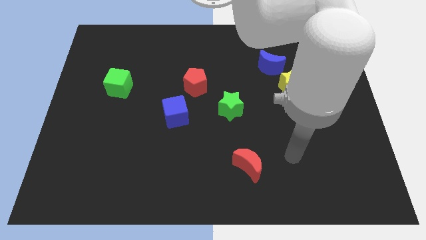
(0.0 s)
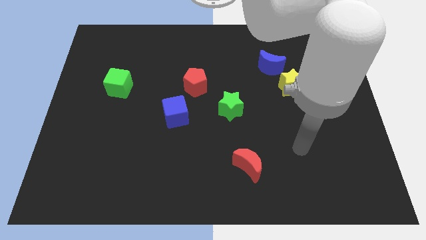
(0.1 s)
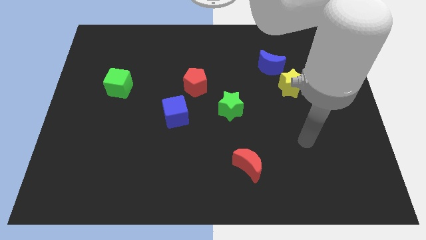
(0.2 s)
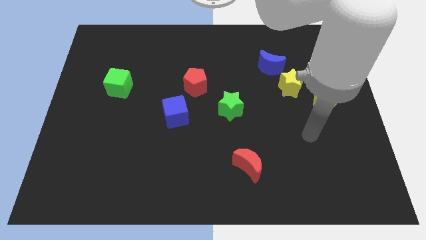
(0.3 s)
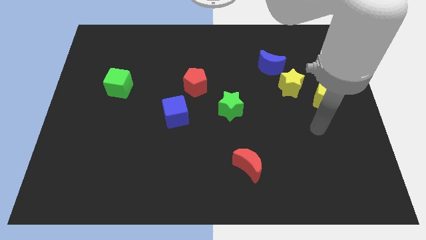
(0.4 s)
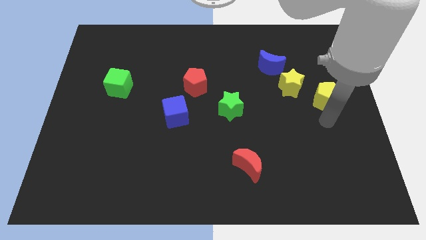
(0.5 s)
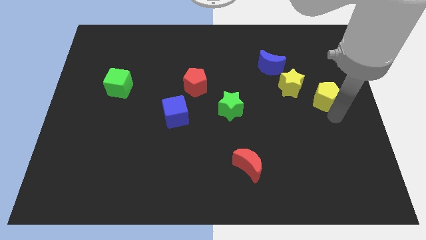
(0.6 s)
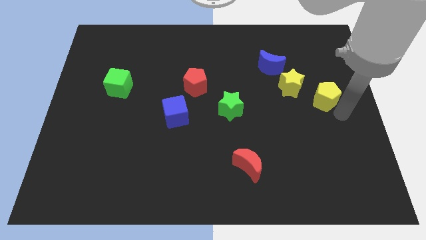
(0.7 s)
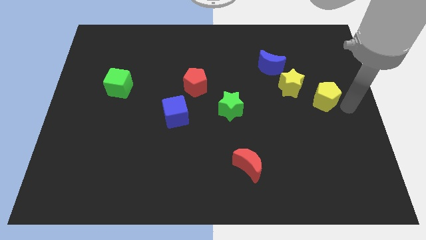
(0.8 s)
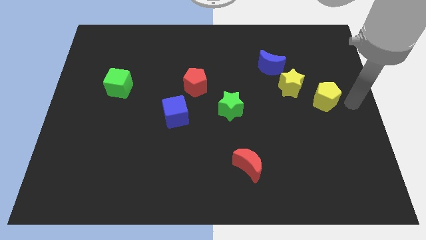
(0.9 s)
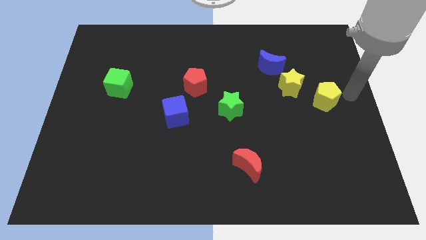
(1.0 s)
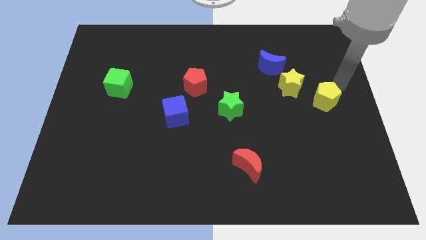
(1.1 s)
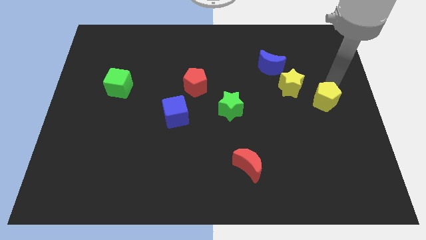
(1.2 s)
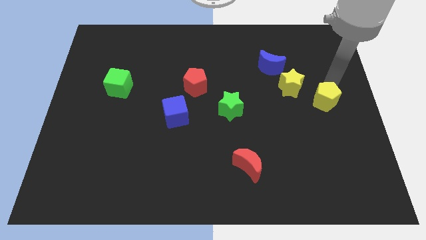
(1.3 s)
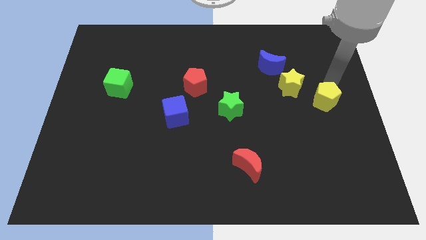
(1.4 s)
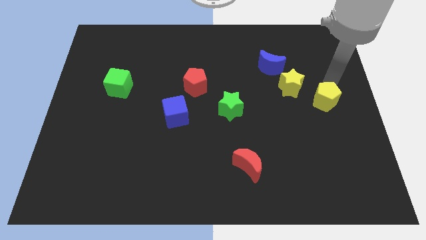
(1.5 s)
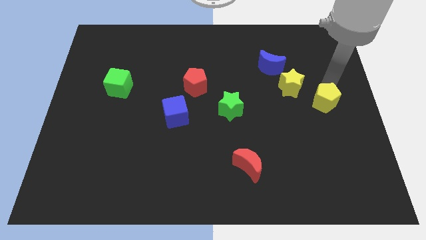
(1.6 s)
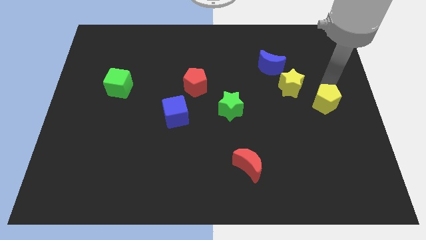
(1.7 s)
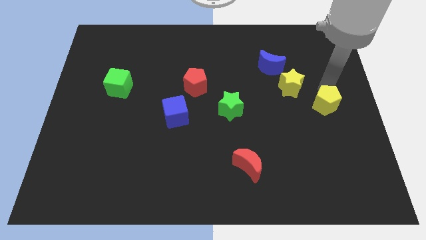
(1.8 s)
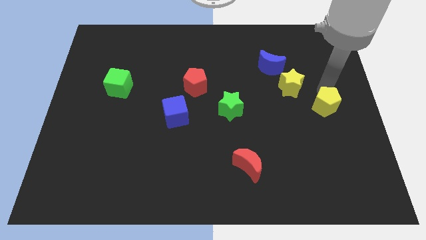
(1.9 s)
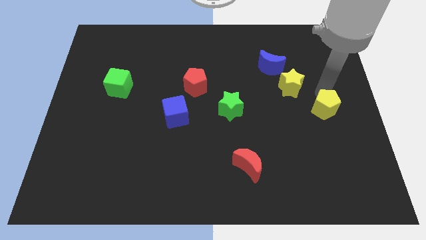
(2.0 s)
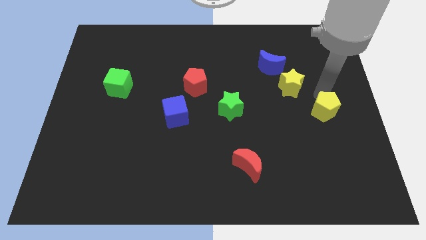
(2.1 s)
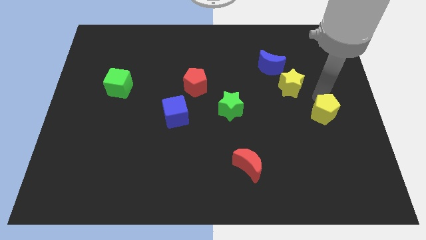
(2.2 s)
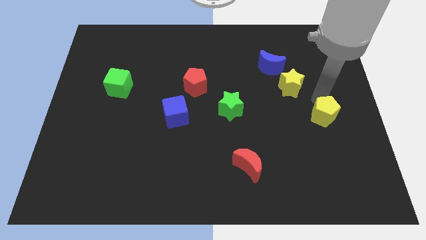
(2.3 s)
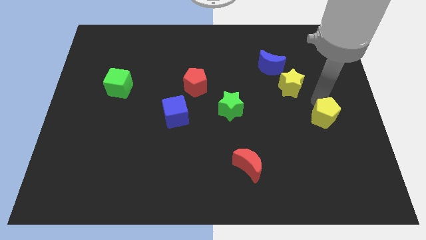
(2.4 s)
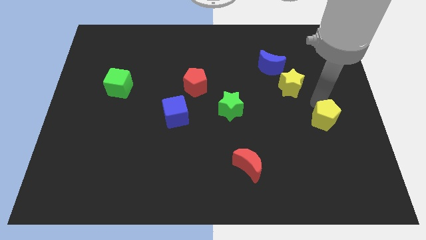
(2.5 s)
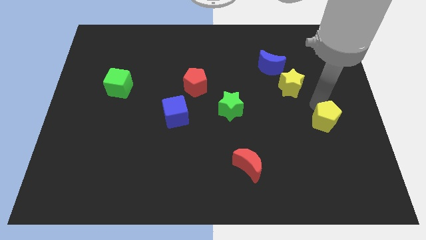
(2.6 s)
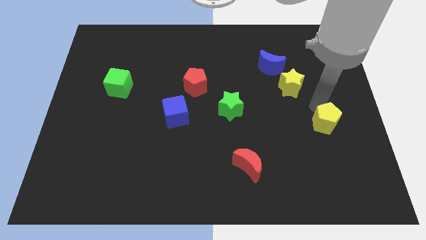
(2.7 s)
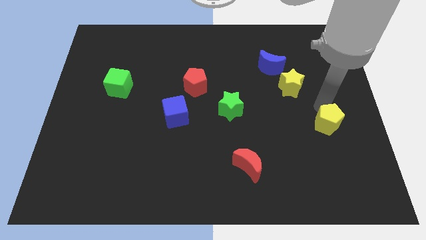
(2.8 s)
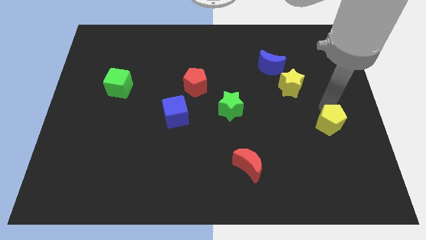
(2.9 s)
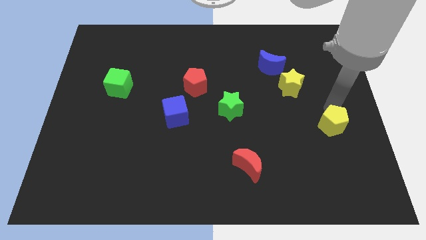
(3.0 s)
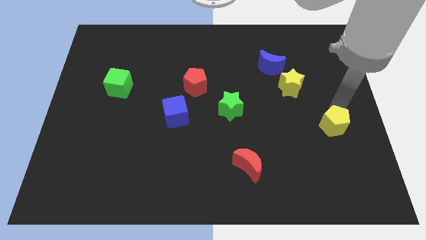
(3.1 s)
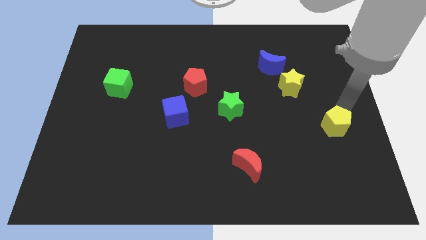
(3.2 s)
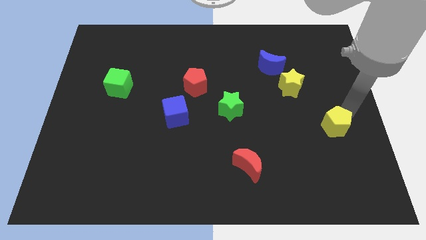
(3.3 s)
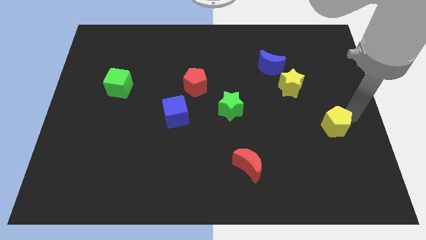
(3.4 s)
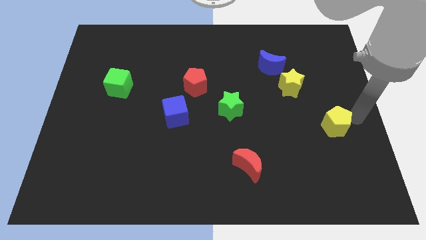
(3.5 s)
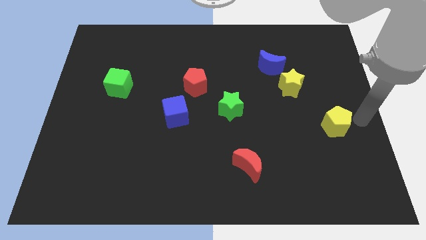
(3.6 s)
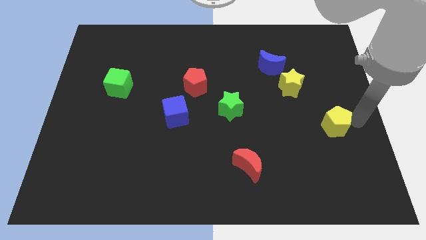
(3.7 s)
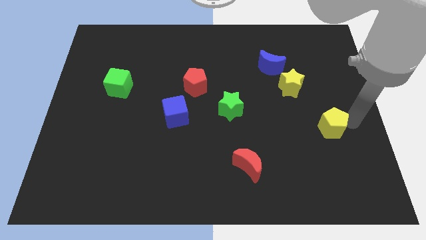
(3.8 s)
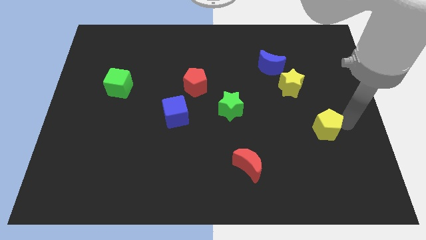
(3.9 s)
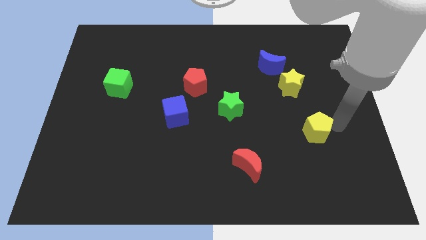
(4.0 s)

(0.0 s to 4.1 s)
move the yellow pentagon downwards and then to the left somewhat

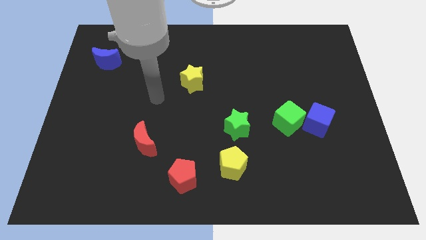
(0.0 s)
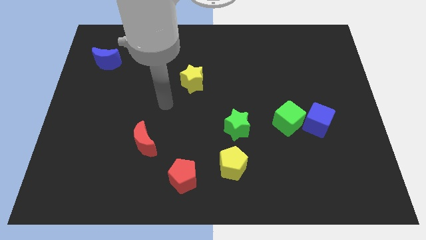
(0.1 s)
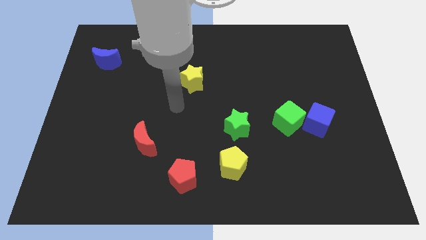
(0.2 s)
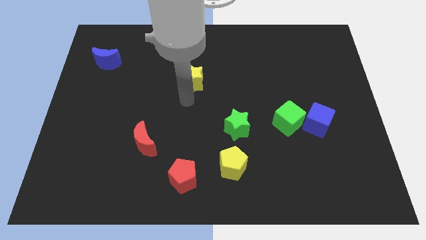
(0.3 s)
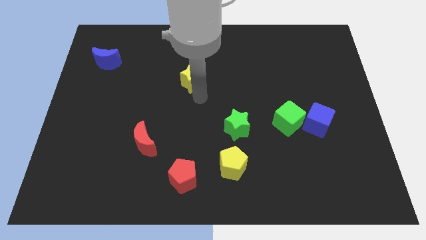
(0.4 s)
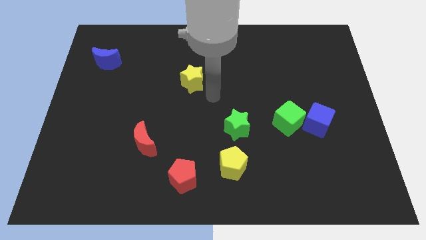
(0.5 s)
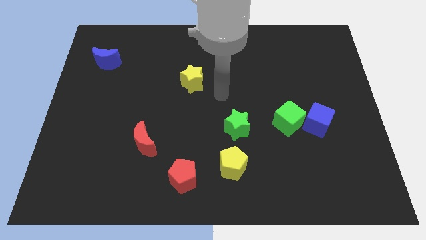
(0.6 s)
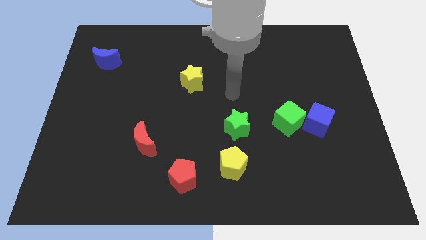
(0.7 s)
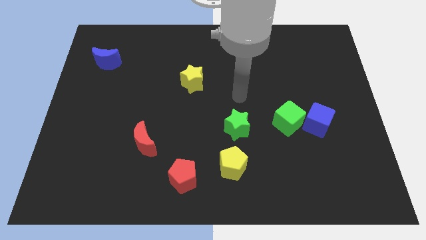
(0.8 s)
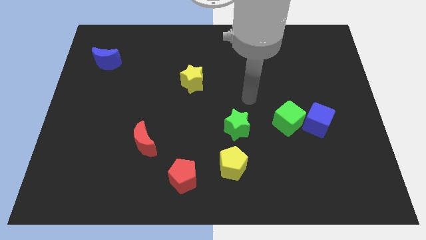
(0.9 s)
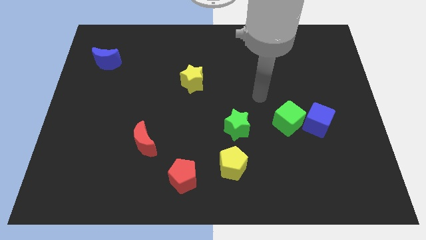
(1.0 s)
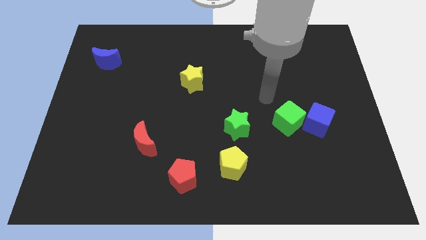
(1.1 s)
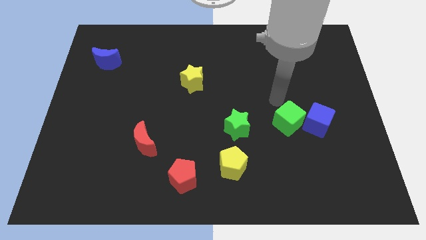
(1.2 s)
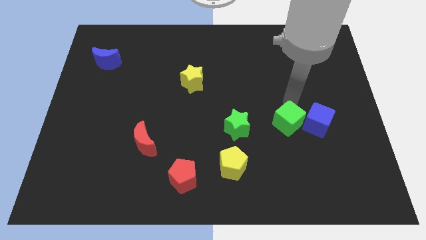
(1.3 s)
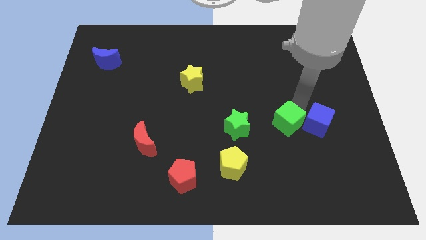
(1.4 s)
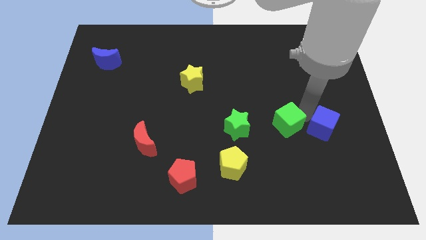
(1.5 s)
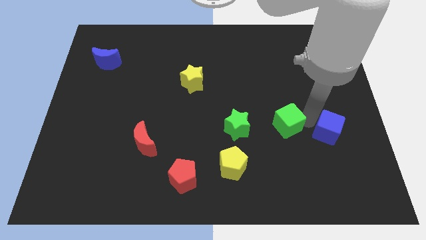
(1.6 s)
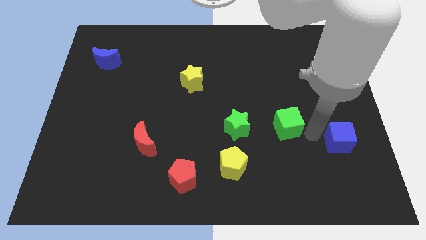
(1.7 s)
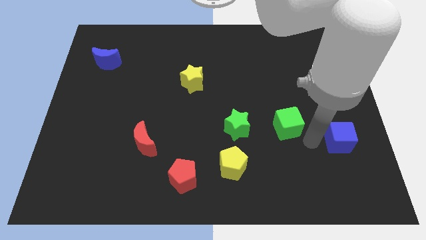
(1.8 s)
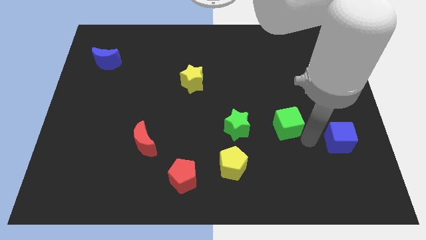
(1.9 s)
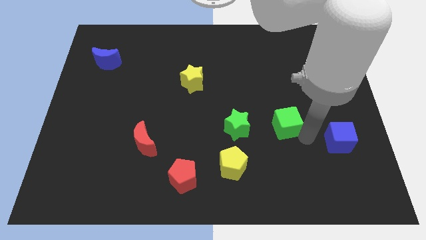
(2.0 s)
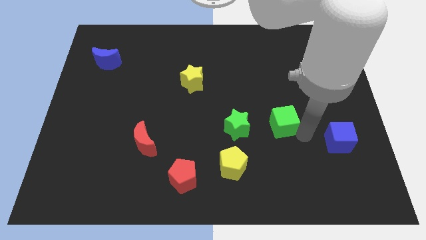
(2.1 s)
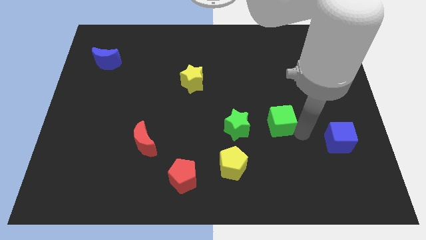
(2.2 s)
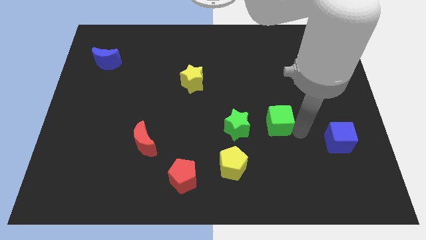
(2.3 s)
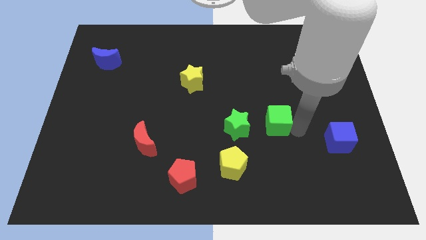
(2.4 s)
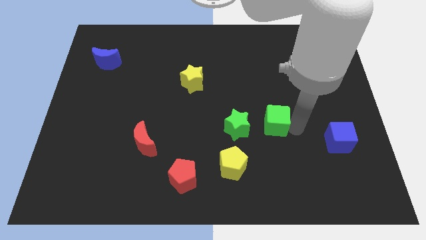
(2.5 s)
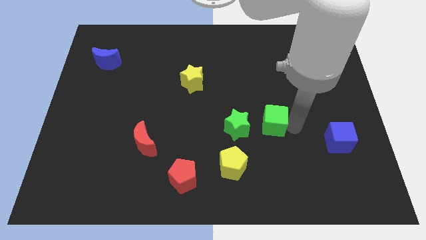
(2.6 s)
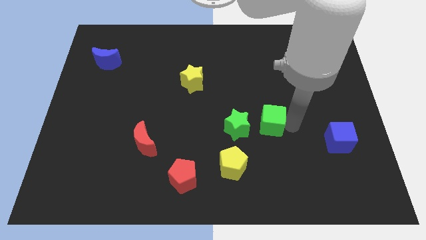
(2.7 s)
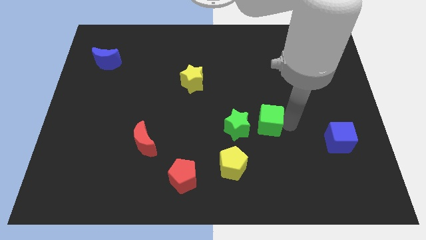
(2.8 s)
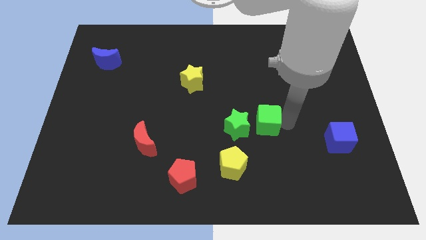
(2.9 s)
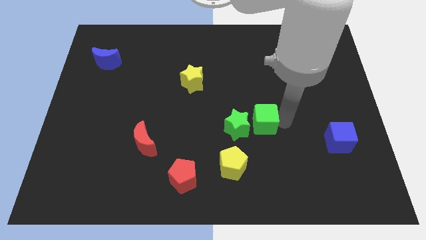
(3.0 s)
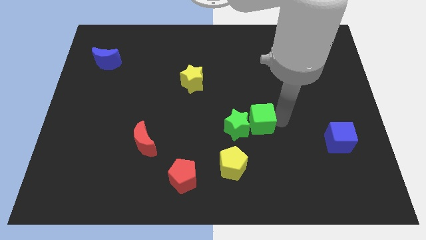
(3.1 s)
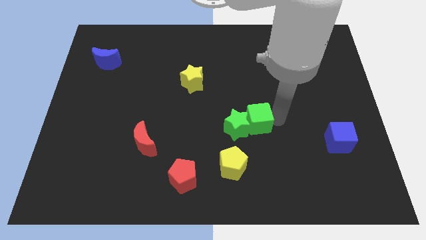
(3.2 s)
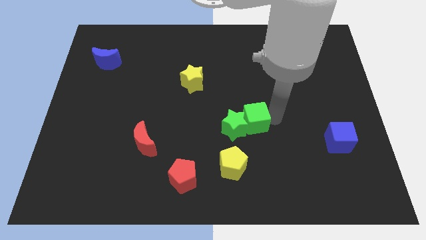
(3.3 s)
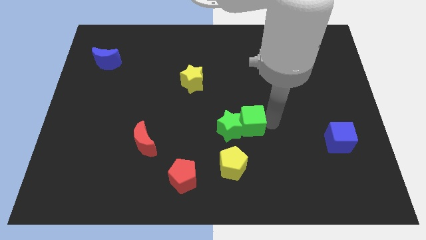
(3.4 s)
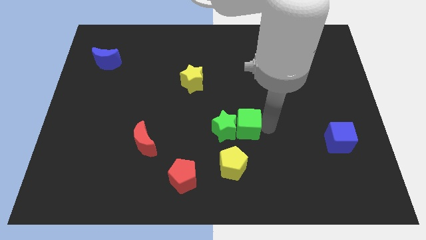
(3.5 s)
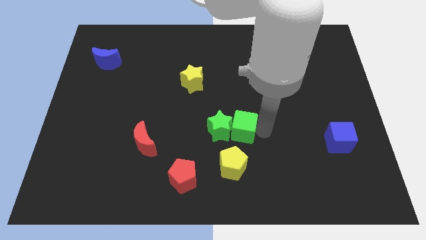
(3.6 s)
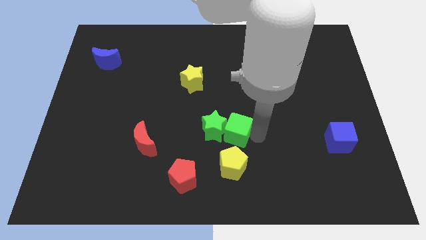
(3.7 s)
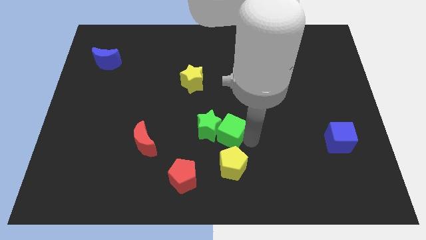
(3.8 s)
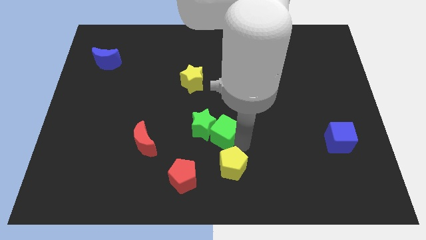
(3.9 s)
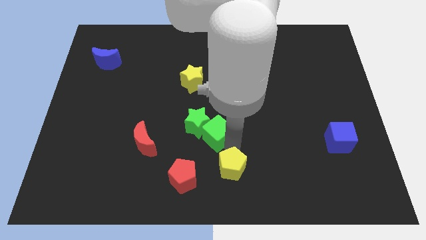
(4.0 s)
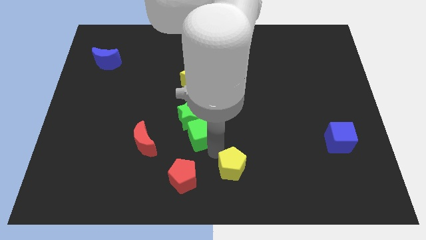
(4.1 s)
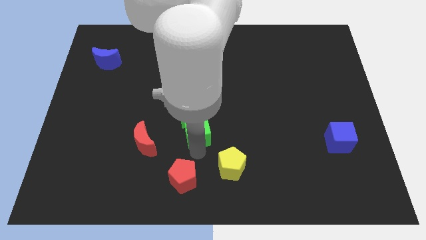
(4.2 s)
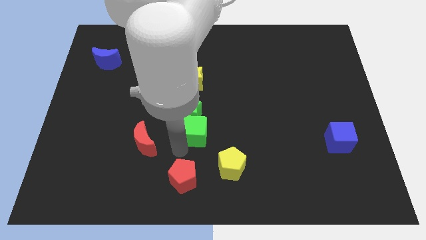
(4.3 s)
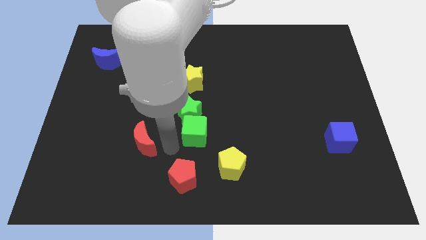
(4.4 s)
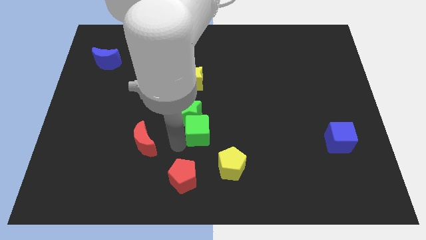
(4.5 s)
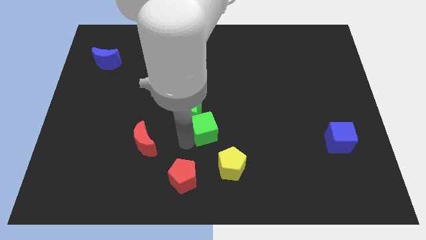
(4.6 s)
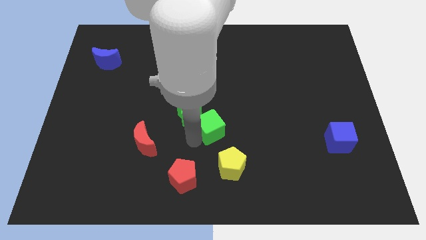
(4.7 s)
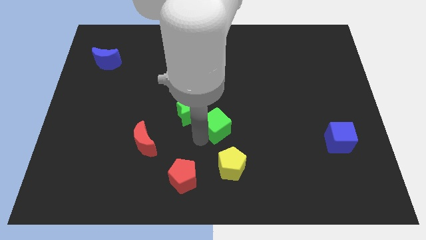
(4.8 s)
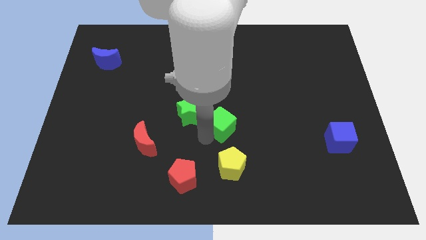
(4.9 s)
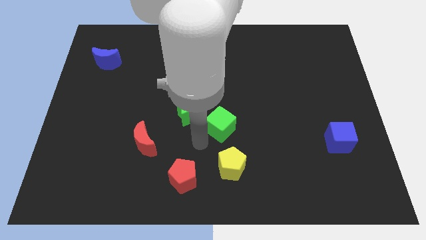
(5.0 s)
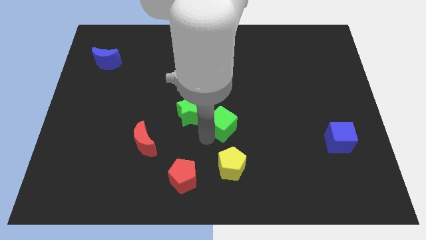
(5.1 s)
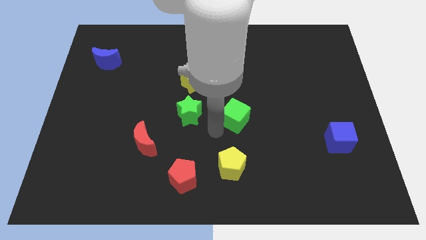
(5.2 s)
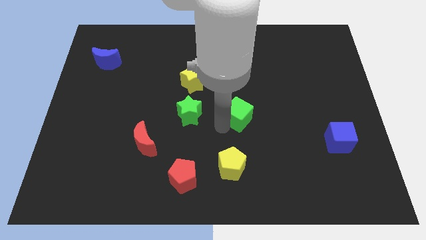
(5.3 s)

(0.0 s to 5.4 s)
slightly move the green cube upwards and left diagonally
